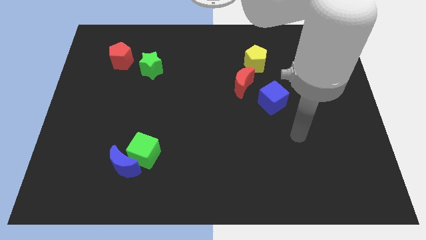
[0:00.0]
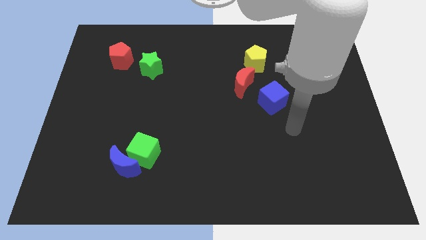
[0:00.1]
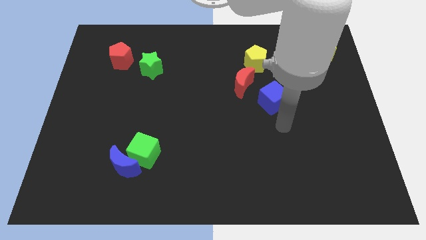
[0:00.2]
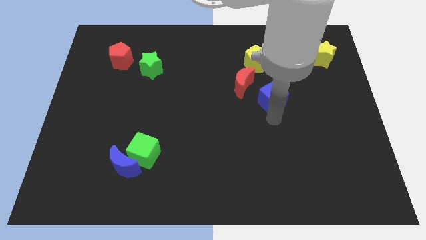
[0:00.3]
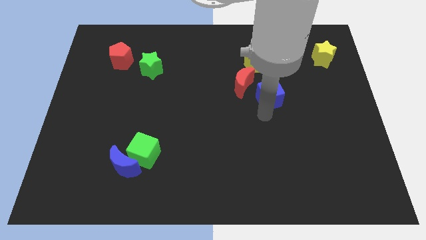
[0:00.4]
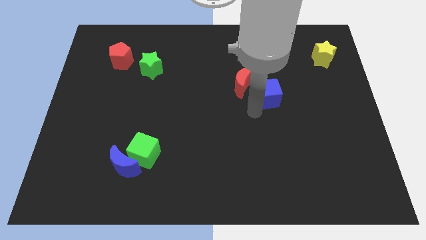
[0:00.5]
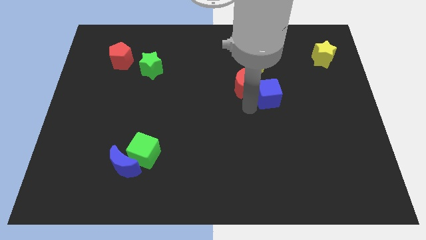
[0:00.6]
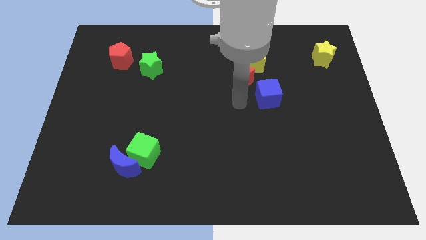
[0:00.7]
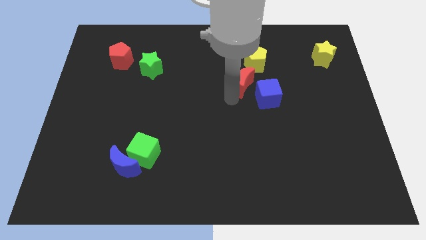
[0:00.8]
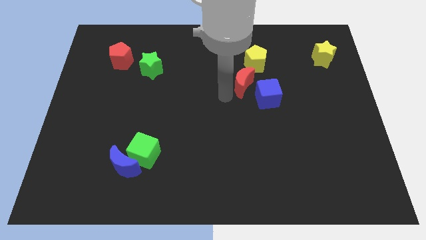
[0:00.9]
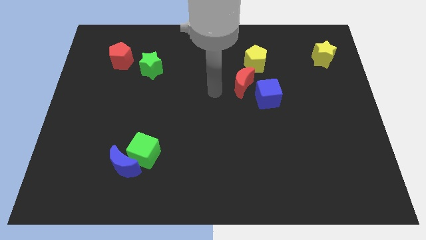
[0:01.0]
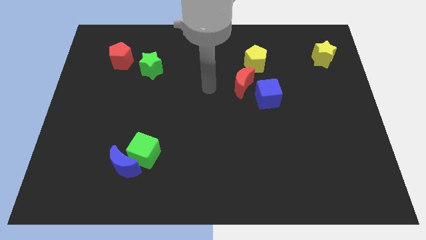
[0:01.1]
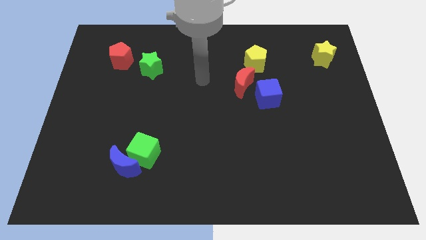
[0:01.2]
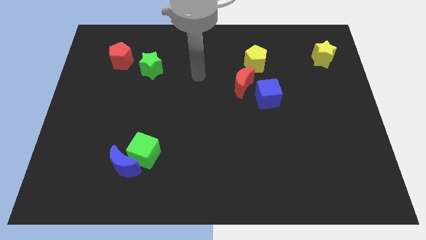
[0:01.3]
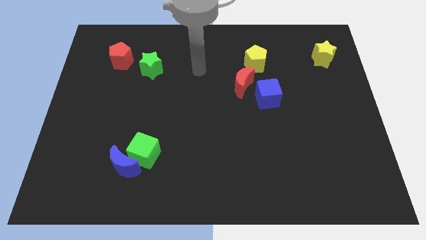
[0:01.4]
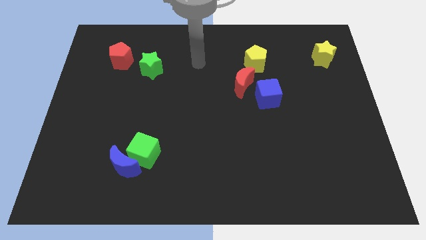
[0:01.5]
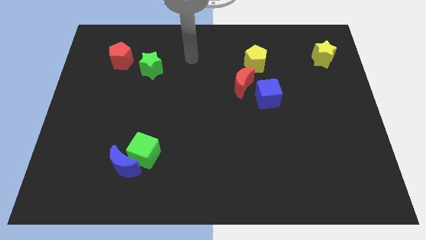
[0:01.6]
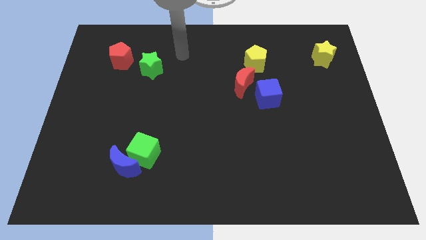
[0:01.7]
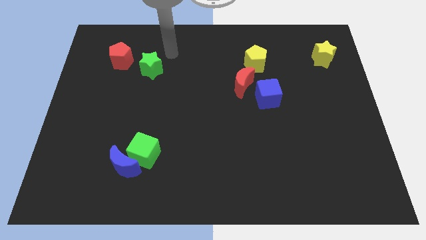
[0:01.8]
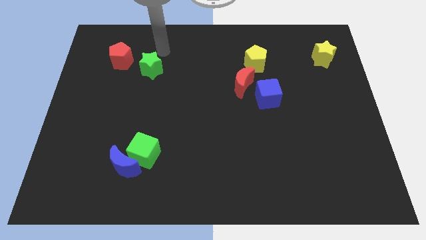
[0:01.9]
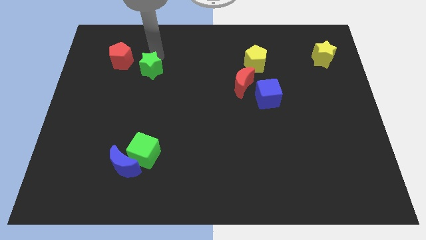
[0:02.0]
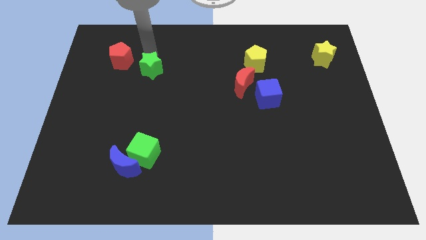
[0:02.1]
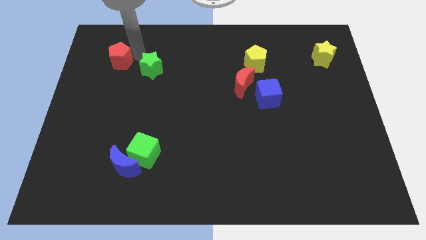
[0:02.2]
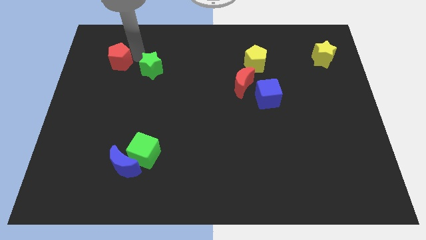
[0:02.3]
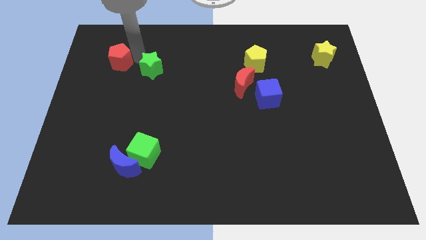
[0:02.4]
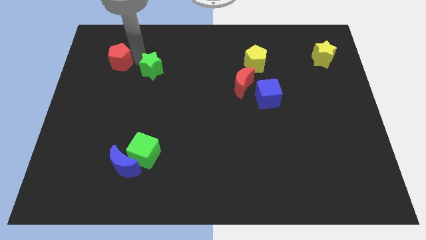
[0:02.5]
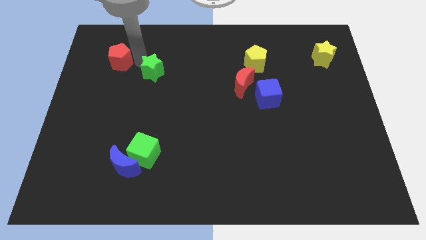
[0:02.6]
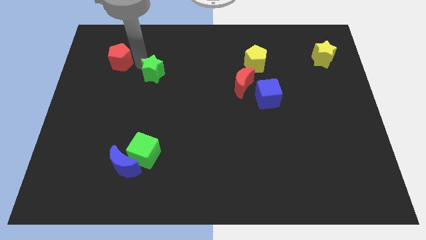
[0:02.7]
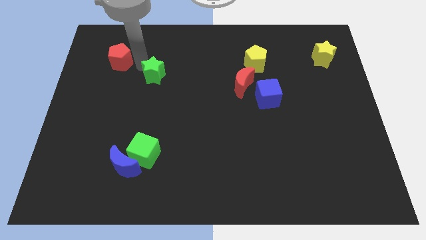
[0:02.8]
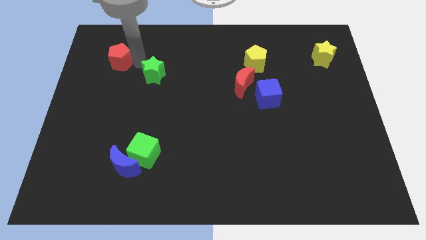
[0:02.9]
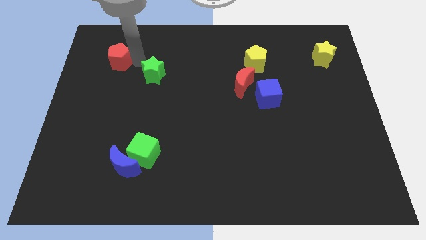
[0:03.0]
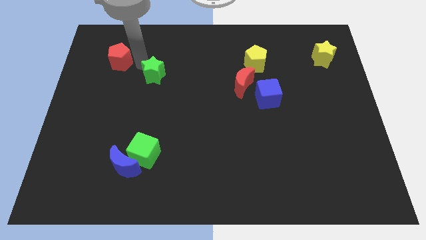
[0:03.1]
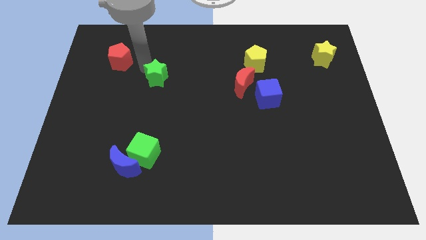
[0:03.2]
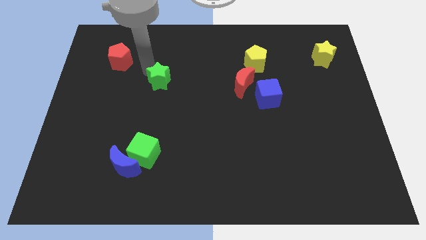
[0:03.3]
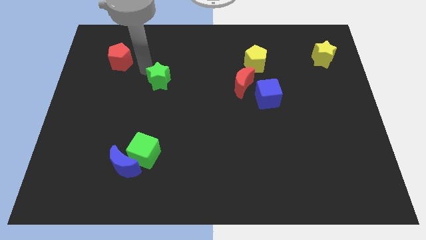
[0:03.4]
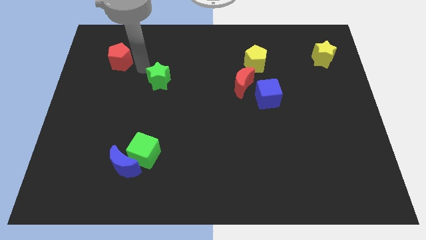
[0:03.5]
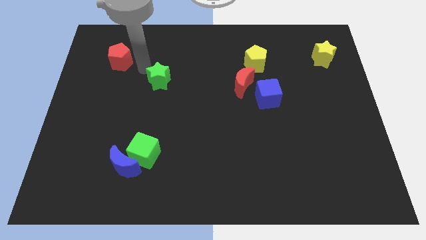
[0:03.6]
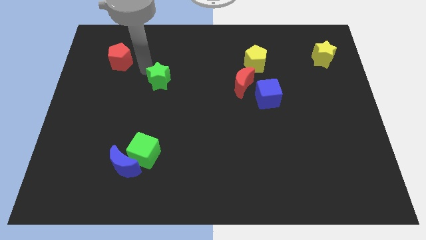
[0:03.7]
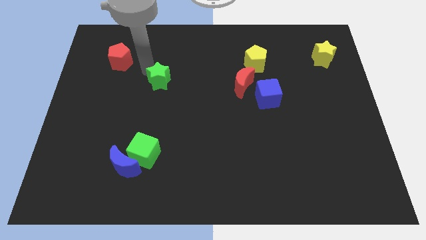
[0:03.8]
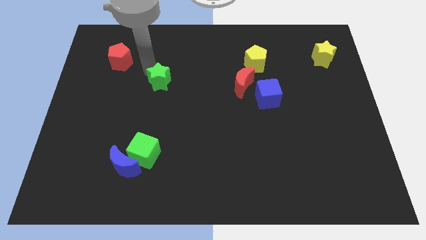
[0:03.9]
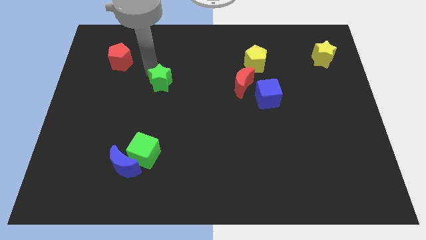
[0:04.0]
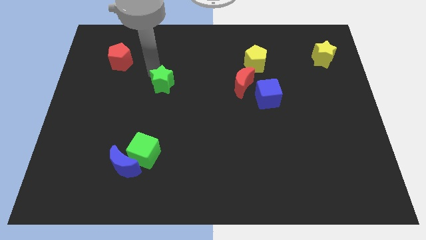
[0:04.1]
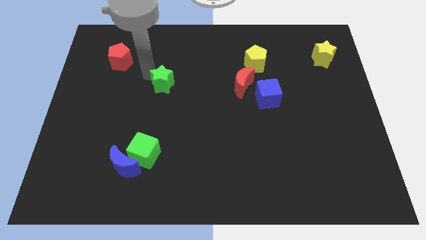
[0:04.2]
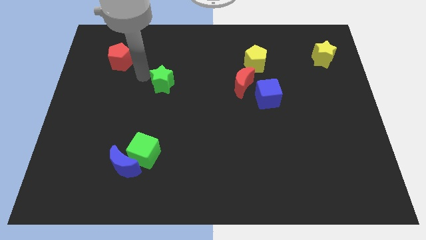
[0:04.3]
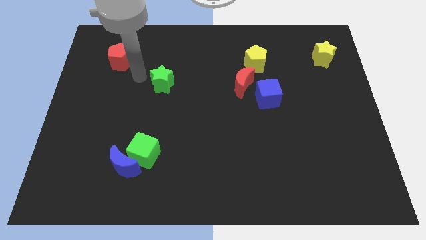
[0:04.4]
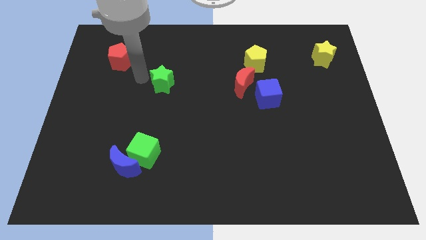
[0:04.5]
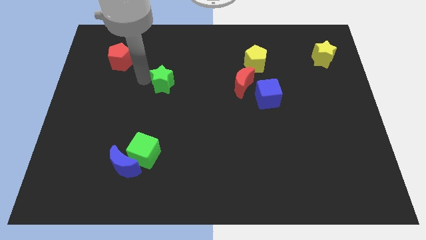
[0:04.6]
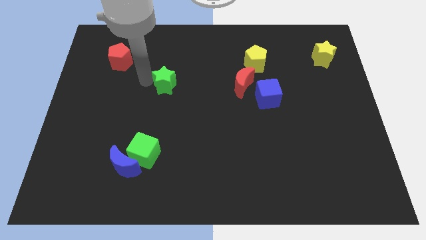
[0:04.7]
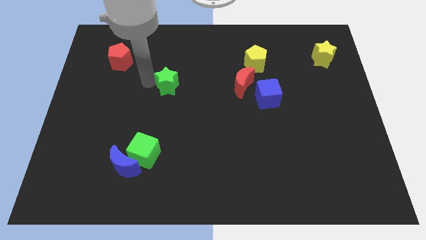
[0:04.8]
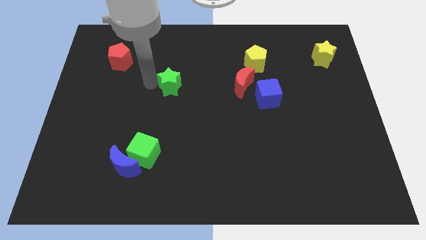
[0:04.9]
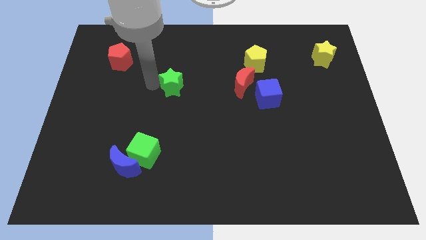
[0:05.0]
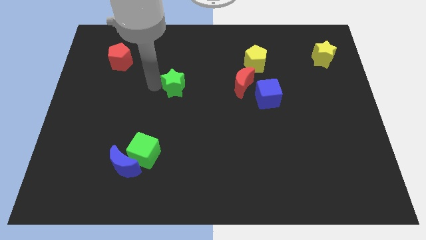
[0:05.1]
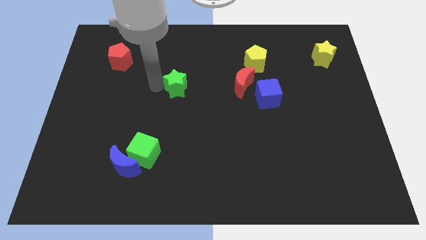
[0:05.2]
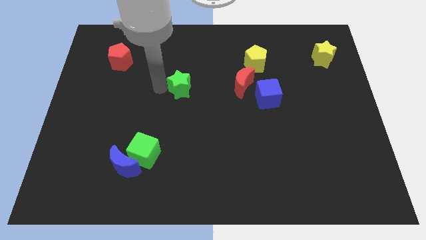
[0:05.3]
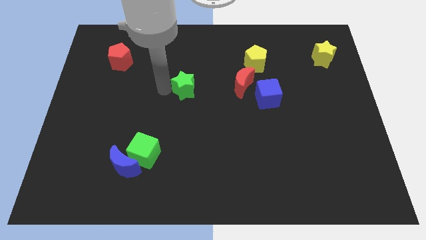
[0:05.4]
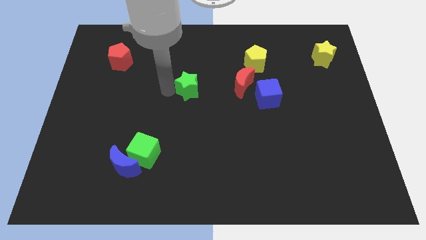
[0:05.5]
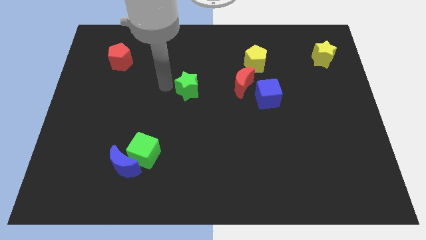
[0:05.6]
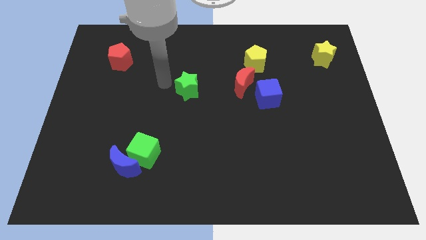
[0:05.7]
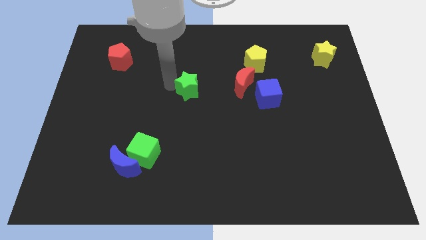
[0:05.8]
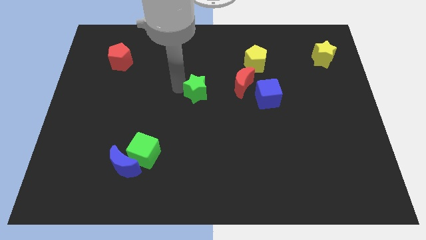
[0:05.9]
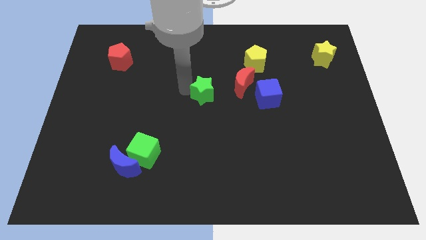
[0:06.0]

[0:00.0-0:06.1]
push the green star to the bottom left of the red moon

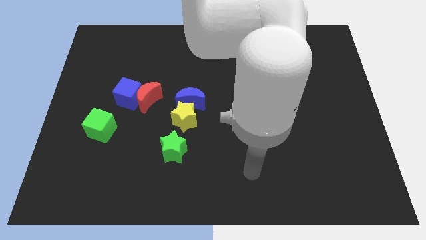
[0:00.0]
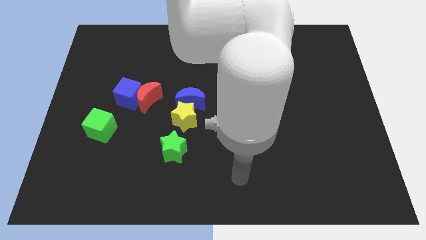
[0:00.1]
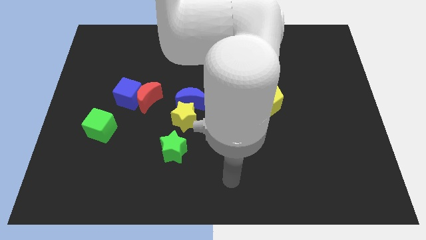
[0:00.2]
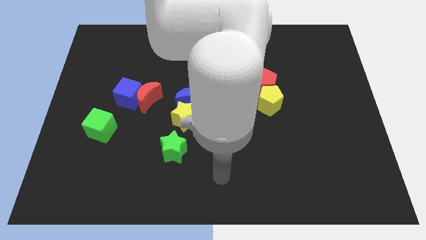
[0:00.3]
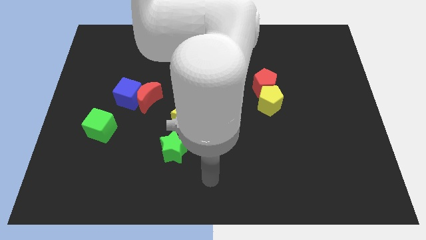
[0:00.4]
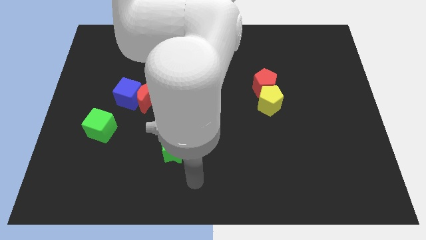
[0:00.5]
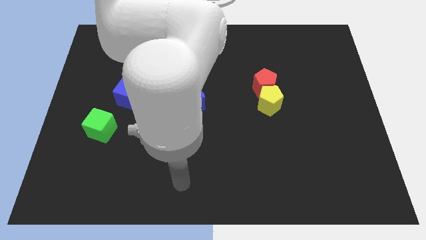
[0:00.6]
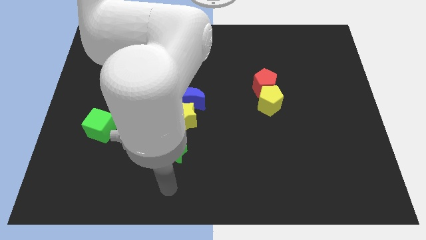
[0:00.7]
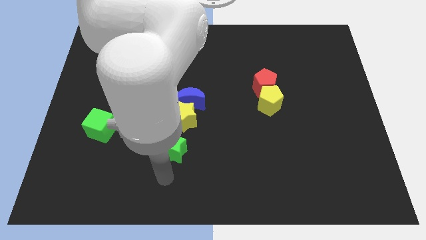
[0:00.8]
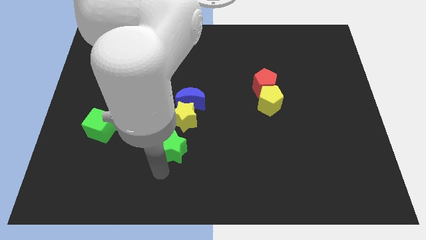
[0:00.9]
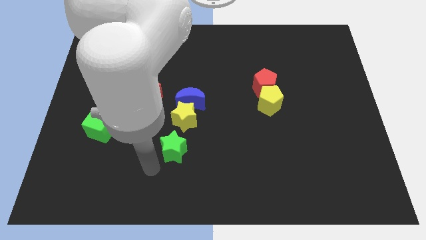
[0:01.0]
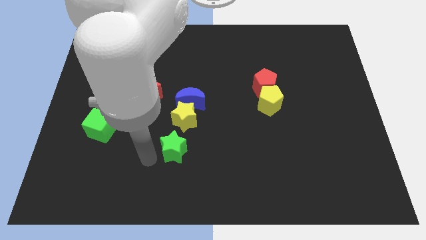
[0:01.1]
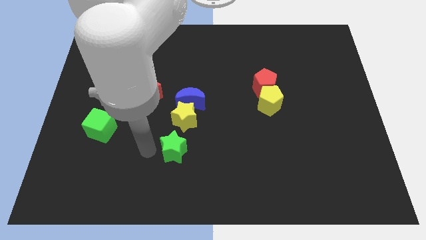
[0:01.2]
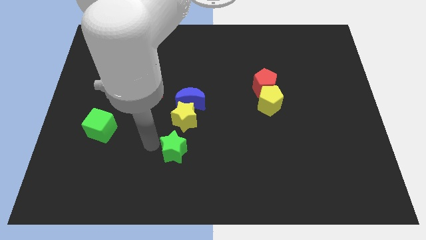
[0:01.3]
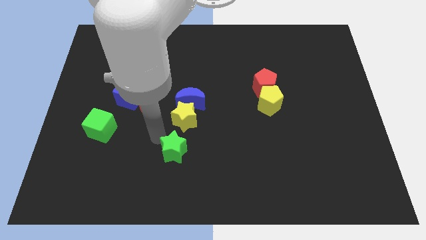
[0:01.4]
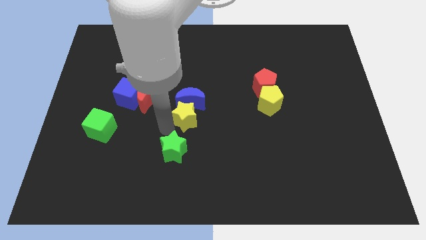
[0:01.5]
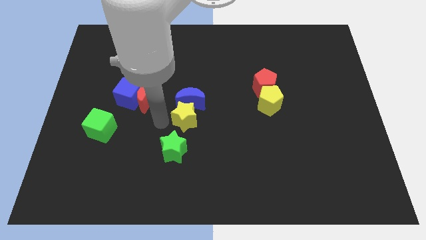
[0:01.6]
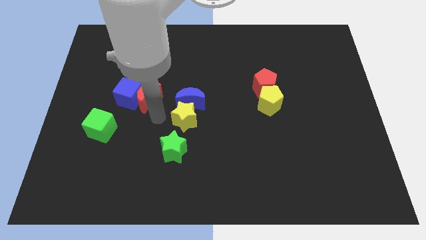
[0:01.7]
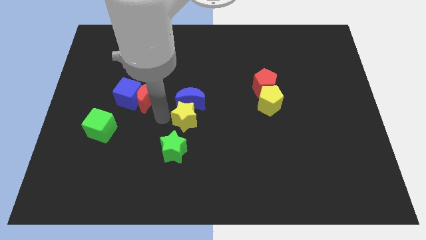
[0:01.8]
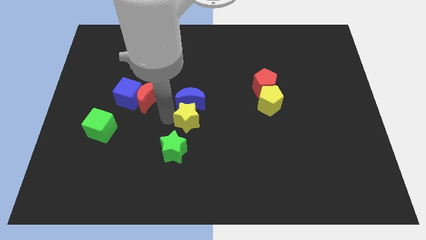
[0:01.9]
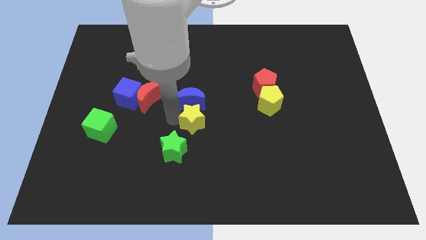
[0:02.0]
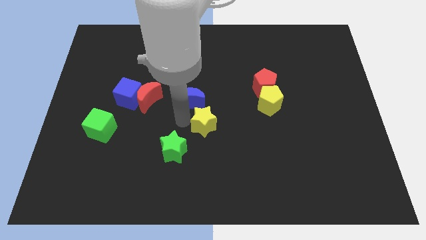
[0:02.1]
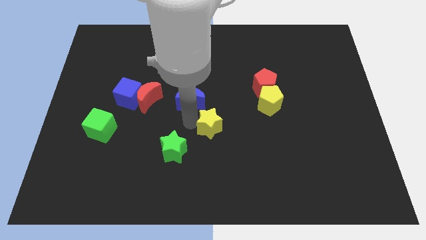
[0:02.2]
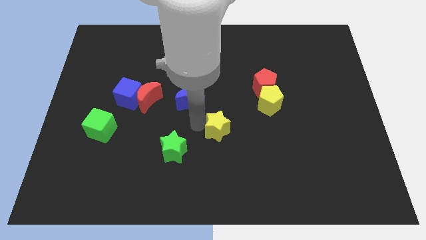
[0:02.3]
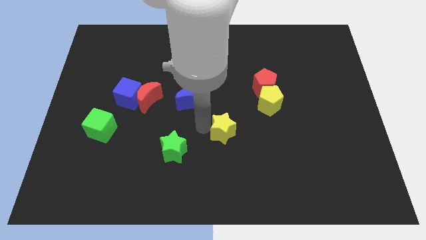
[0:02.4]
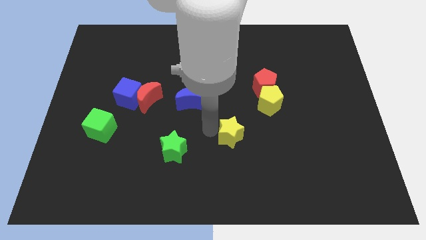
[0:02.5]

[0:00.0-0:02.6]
push the yellow star diagonally down and to the left of the yellow pentagon
